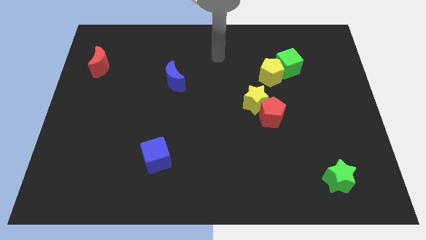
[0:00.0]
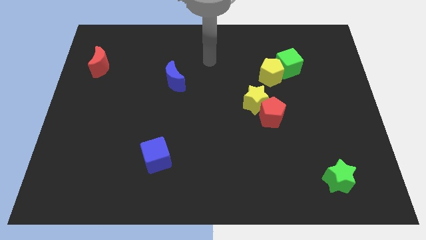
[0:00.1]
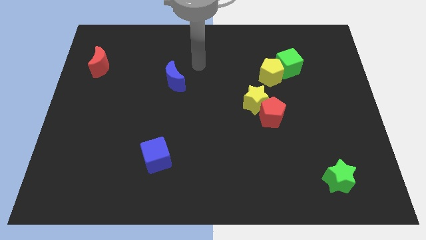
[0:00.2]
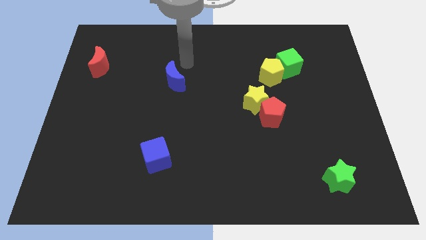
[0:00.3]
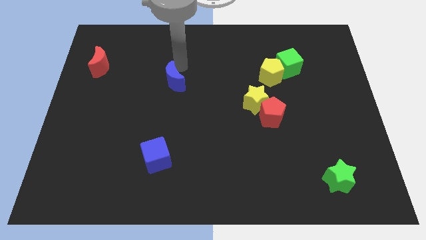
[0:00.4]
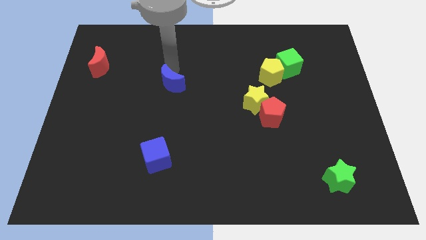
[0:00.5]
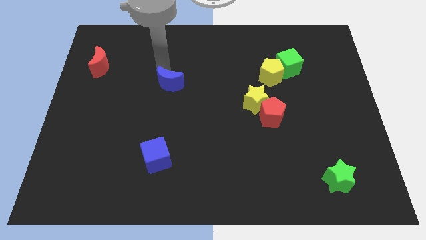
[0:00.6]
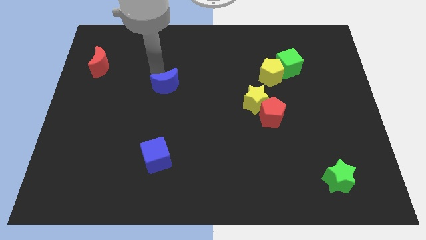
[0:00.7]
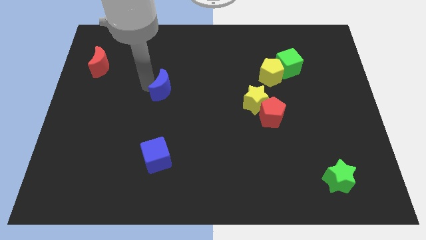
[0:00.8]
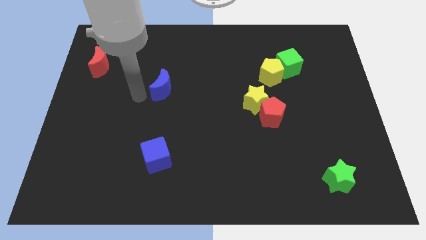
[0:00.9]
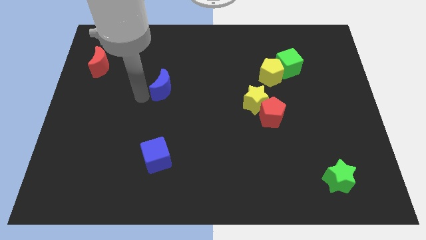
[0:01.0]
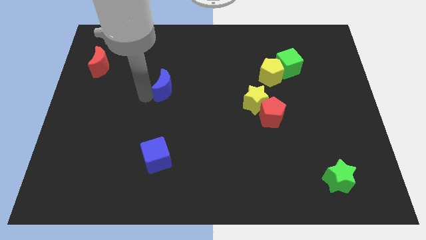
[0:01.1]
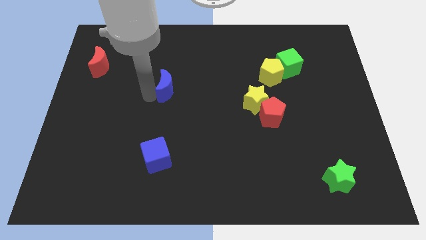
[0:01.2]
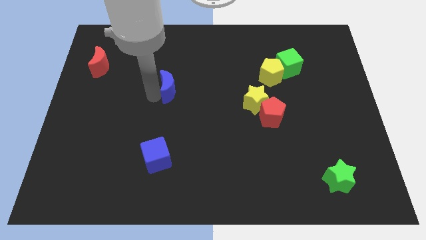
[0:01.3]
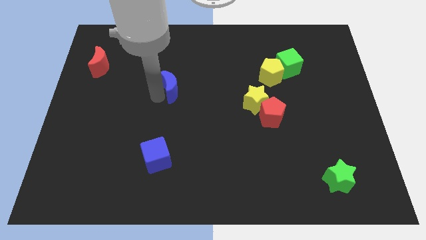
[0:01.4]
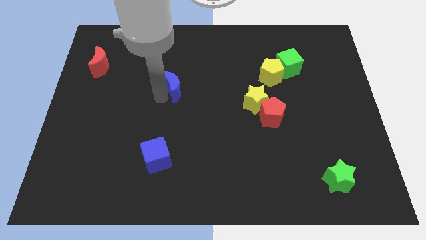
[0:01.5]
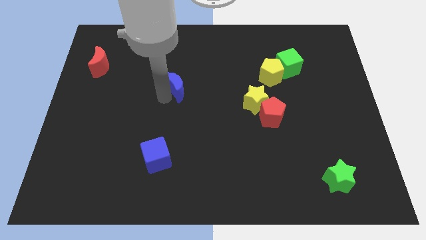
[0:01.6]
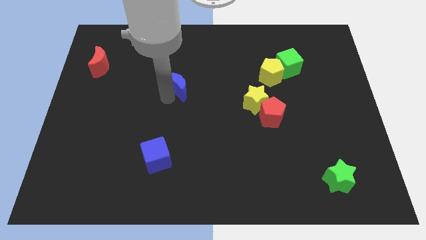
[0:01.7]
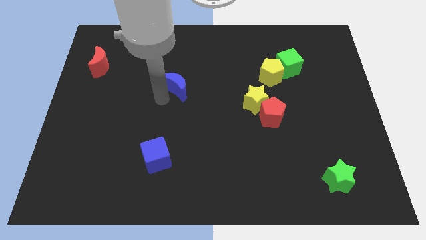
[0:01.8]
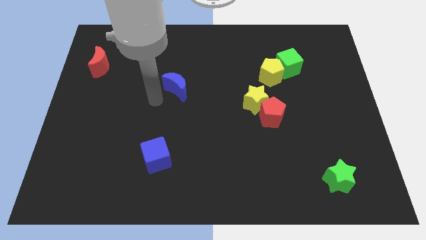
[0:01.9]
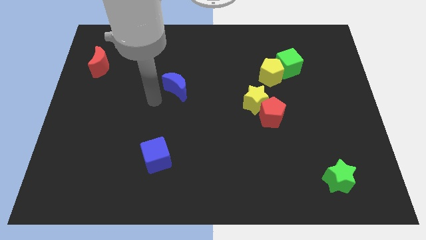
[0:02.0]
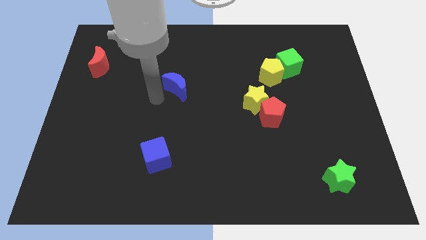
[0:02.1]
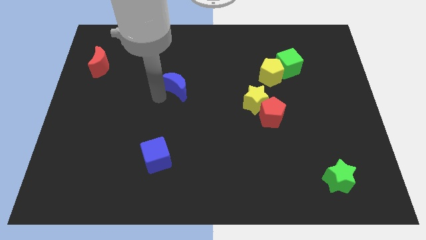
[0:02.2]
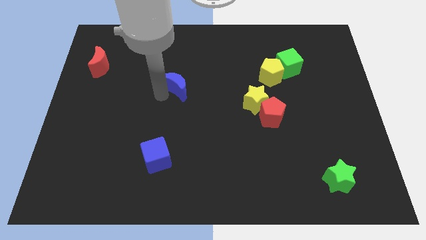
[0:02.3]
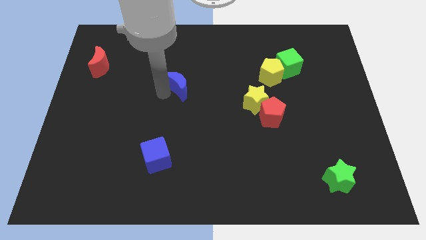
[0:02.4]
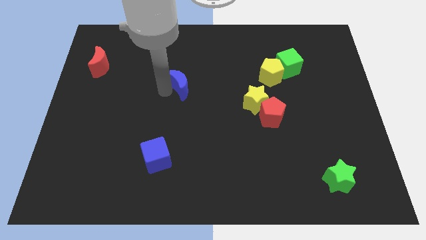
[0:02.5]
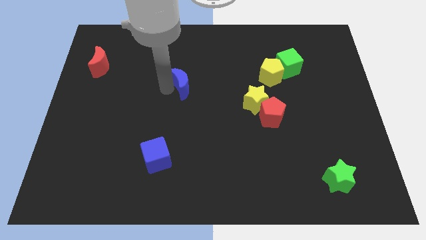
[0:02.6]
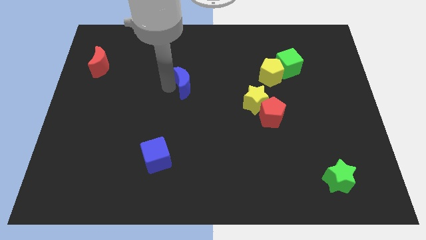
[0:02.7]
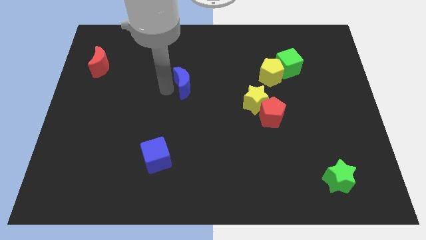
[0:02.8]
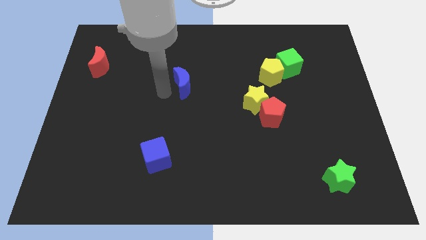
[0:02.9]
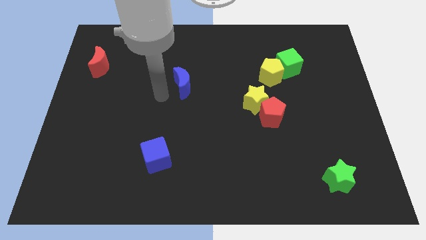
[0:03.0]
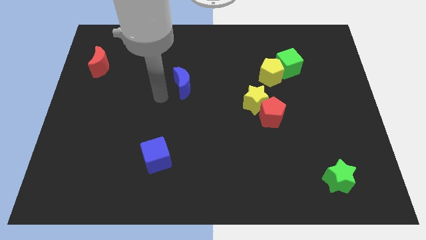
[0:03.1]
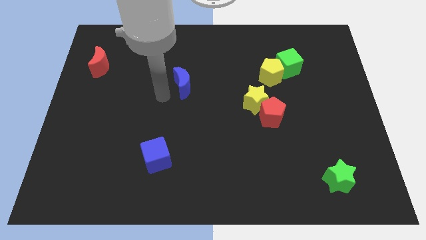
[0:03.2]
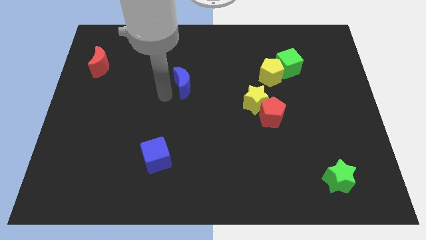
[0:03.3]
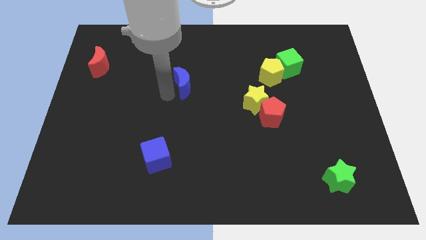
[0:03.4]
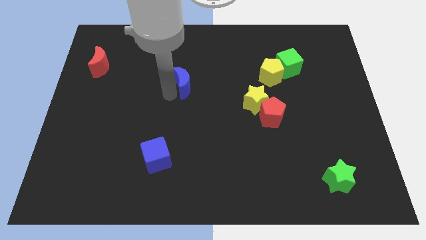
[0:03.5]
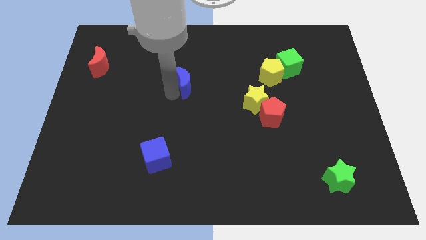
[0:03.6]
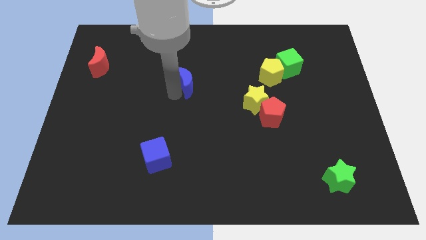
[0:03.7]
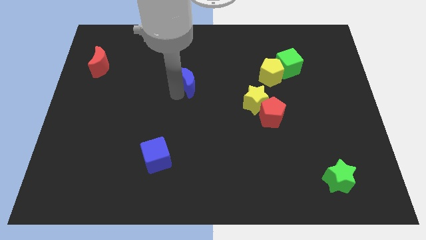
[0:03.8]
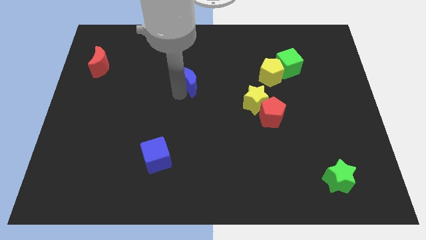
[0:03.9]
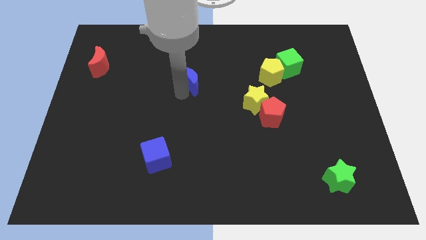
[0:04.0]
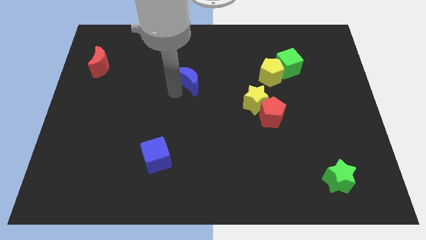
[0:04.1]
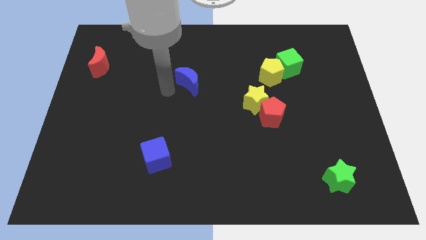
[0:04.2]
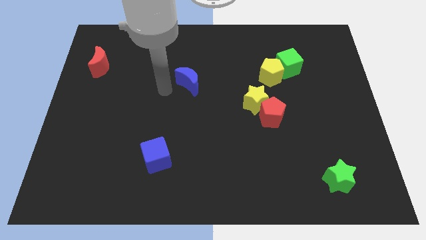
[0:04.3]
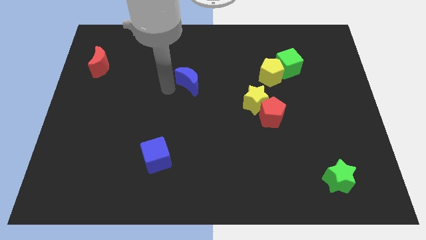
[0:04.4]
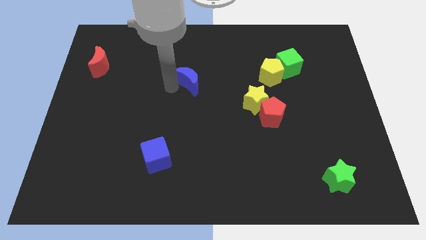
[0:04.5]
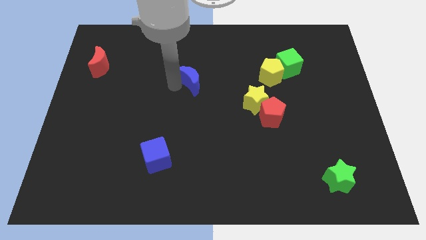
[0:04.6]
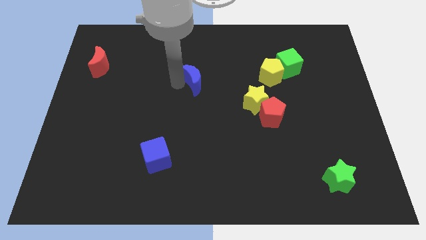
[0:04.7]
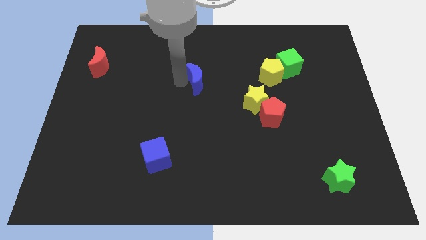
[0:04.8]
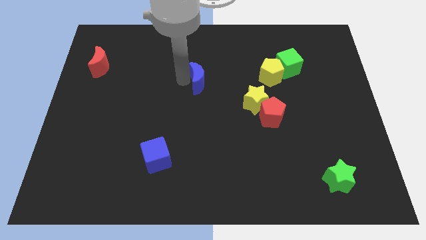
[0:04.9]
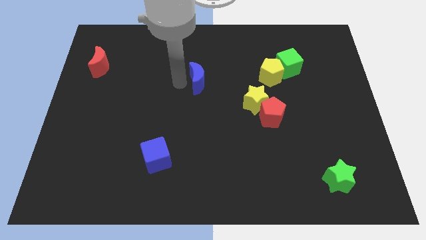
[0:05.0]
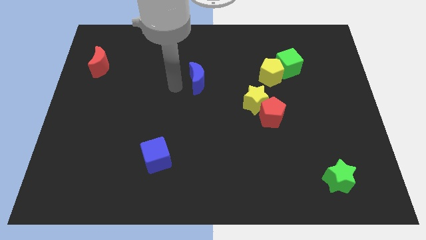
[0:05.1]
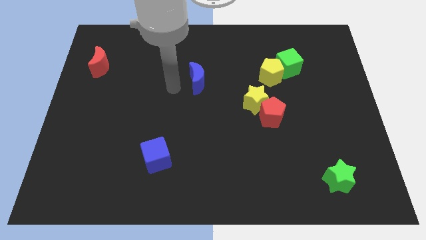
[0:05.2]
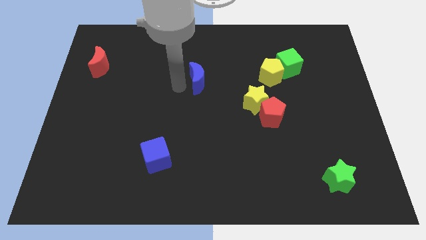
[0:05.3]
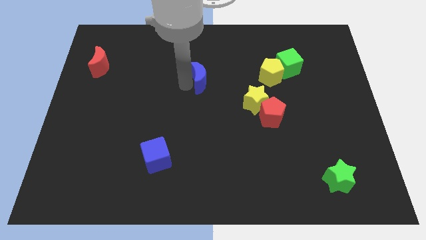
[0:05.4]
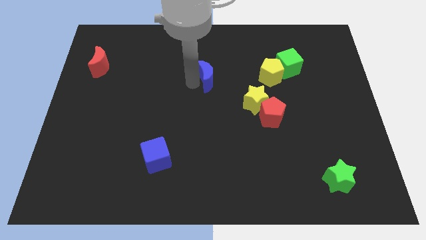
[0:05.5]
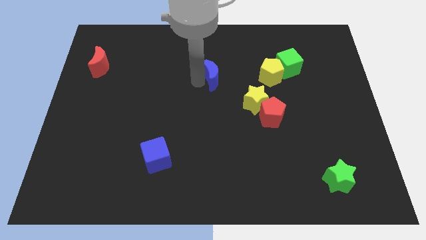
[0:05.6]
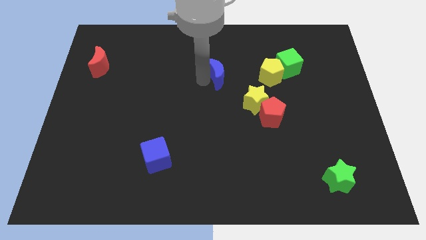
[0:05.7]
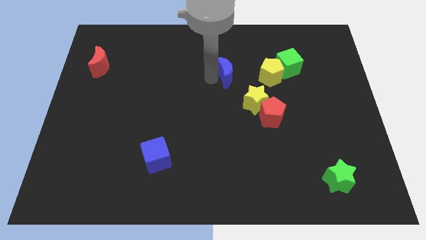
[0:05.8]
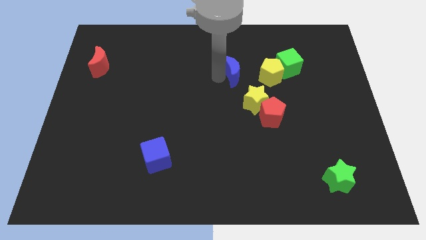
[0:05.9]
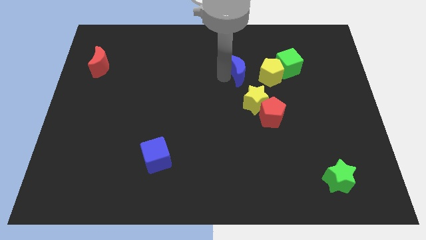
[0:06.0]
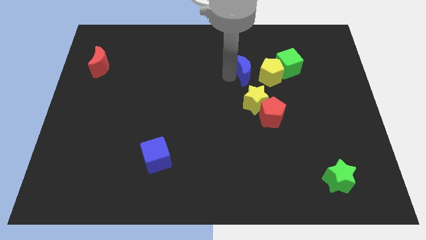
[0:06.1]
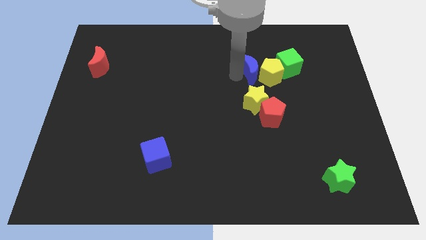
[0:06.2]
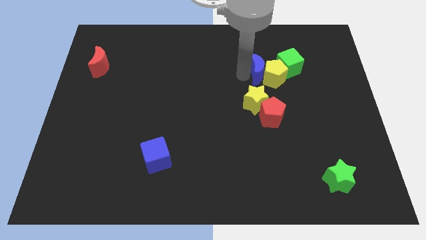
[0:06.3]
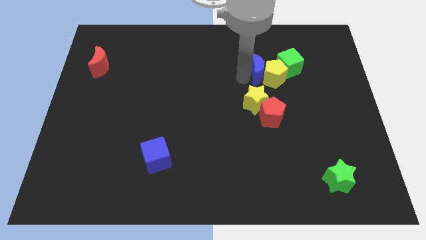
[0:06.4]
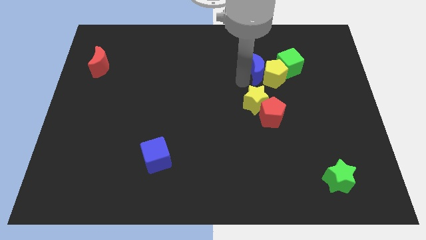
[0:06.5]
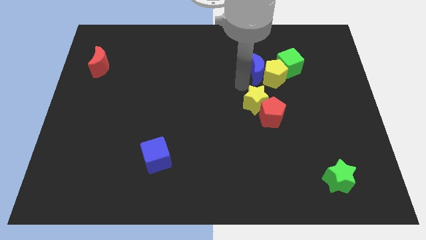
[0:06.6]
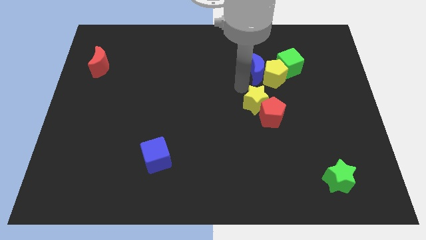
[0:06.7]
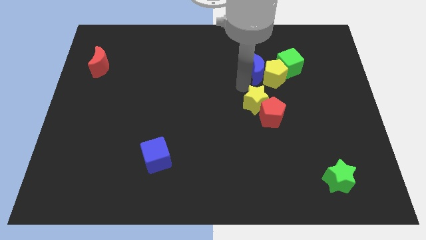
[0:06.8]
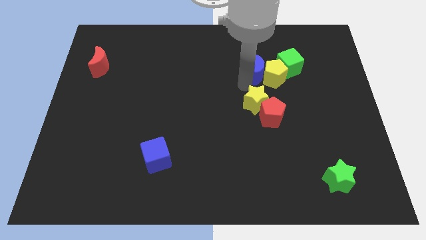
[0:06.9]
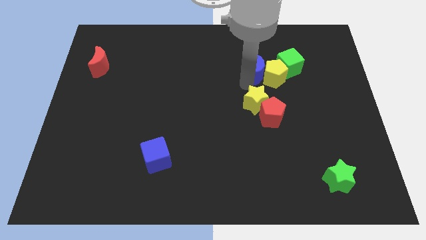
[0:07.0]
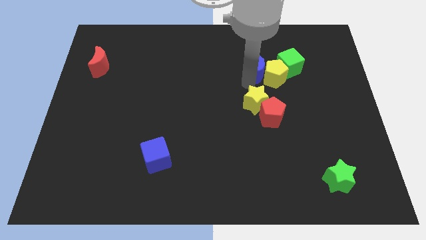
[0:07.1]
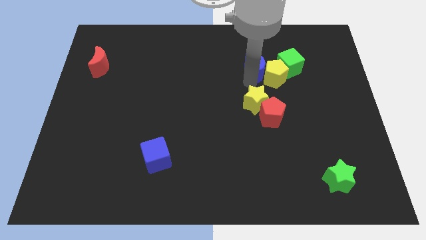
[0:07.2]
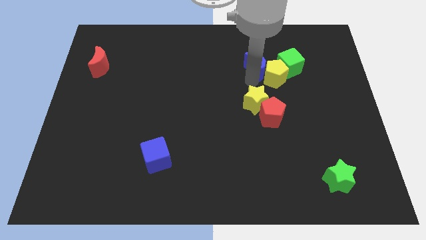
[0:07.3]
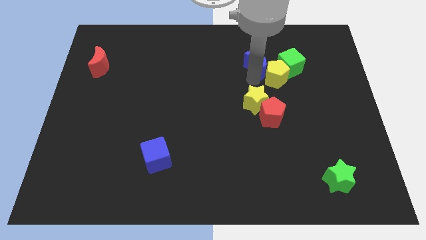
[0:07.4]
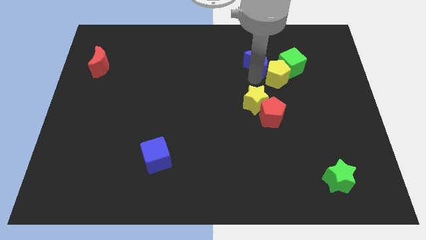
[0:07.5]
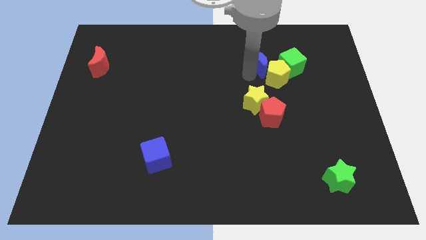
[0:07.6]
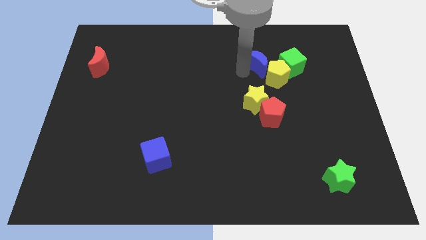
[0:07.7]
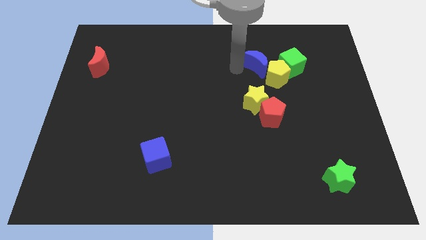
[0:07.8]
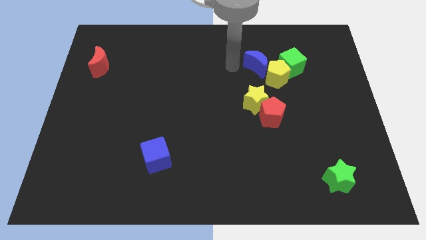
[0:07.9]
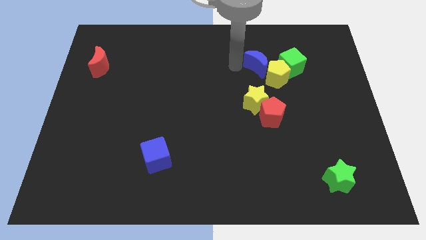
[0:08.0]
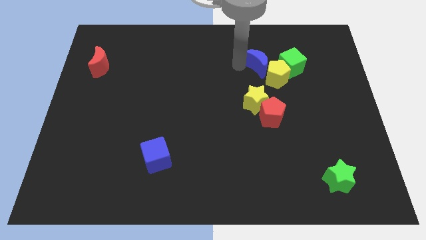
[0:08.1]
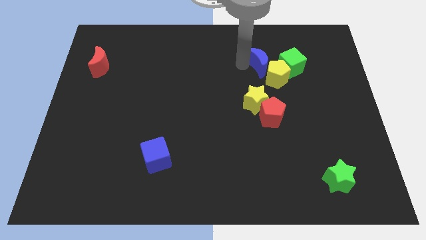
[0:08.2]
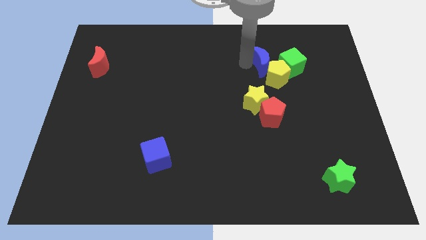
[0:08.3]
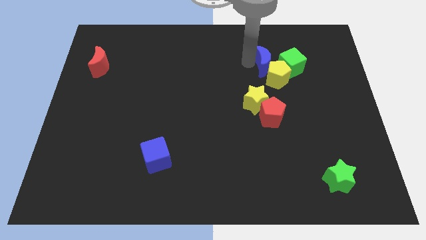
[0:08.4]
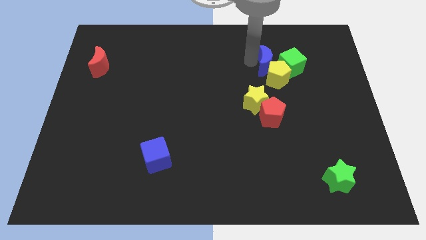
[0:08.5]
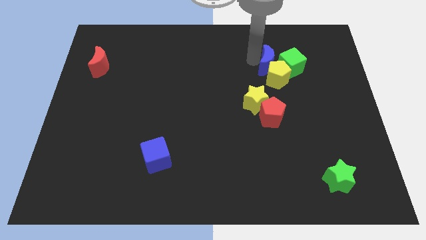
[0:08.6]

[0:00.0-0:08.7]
put the blue moon next to the green cube
